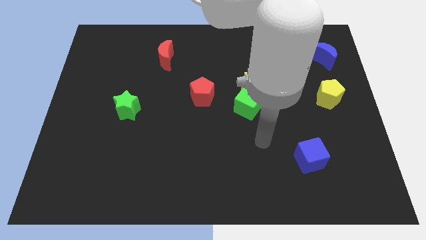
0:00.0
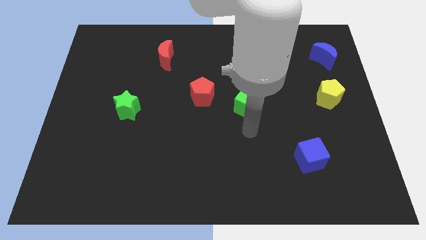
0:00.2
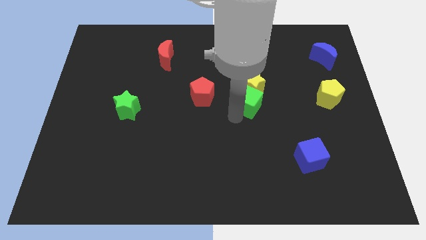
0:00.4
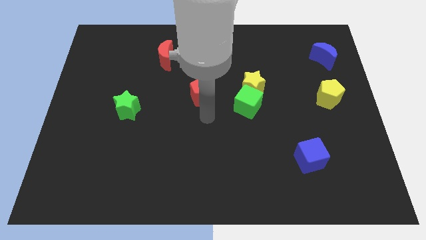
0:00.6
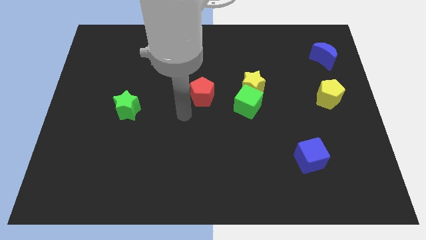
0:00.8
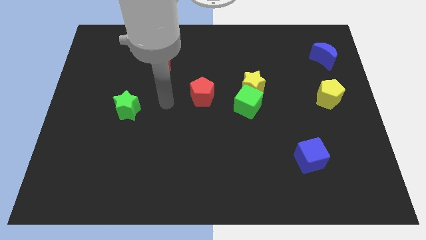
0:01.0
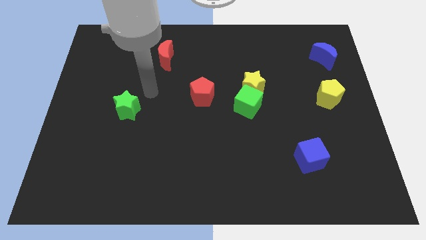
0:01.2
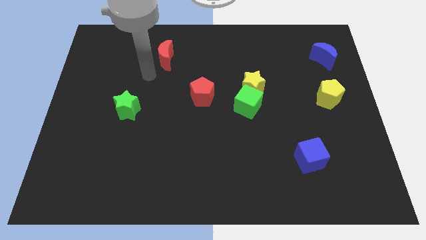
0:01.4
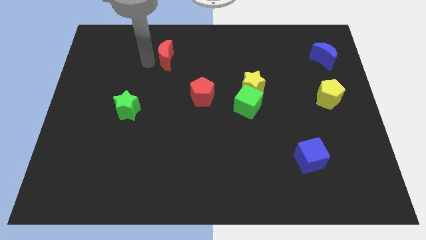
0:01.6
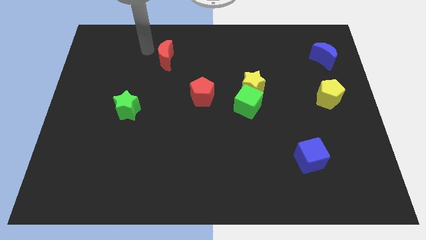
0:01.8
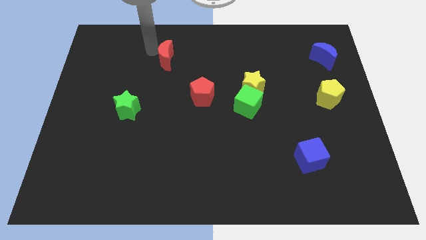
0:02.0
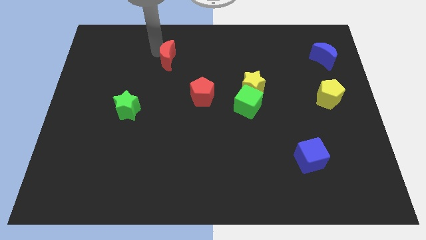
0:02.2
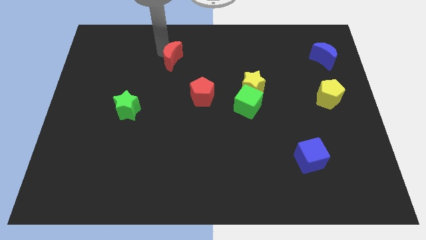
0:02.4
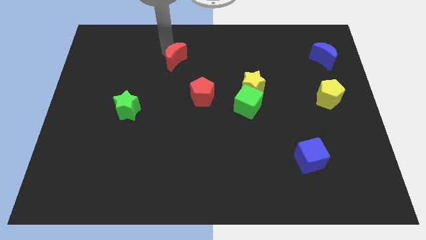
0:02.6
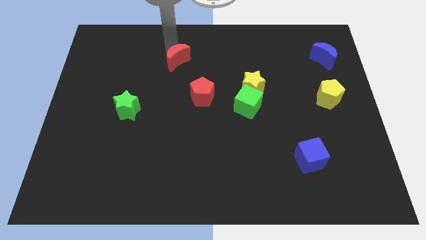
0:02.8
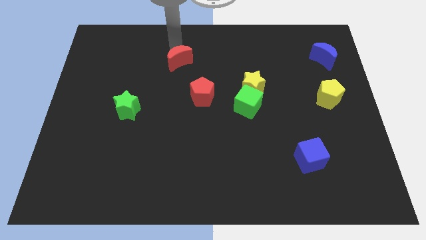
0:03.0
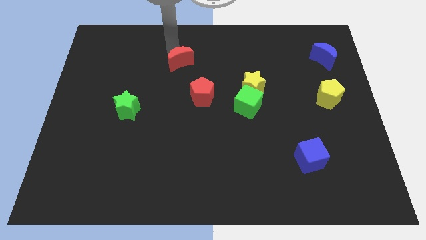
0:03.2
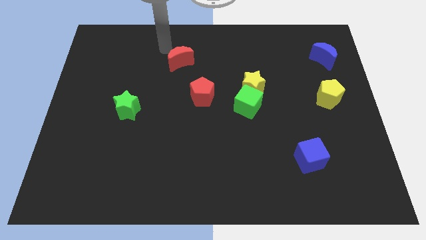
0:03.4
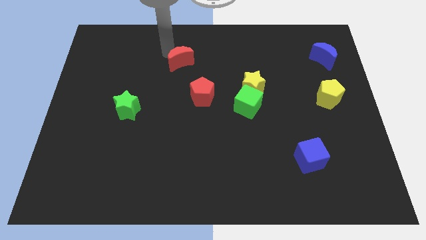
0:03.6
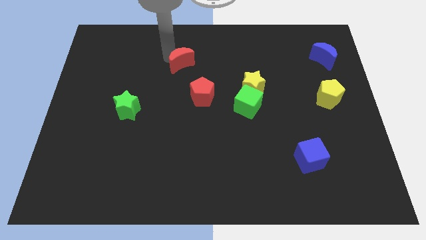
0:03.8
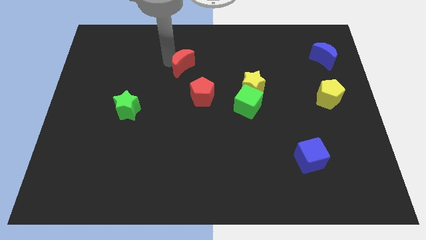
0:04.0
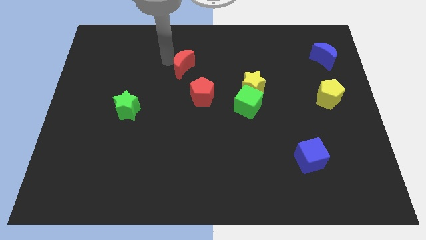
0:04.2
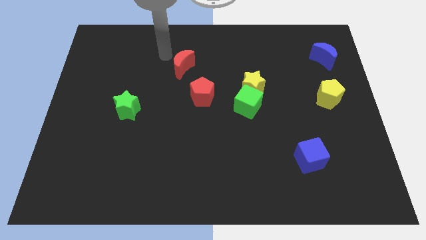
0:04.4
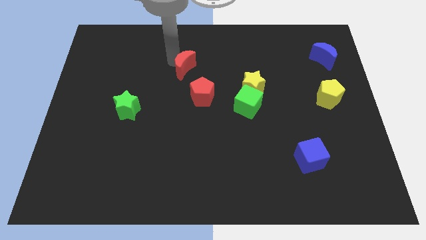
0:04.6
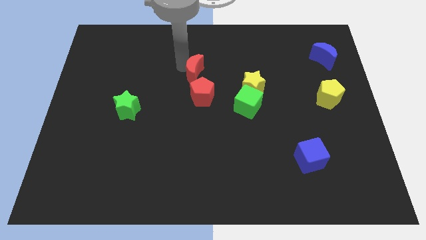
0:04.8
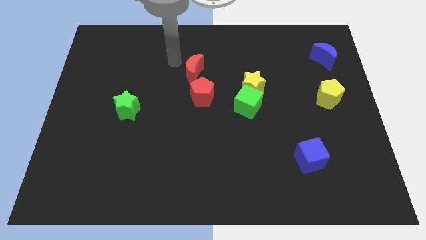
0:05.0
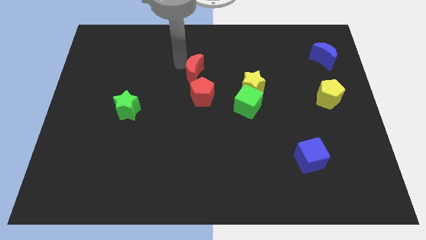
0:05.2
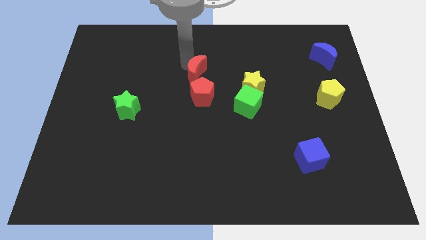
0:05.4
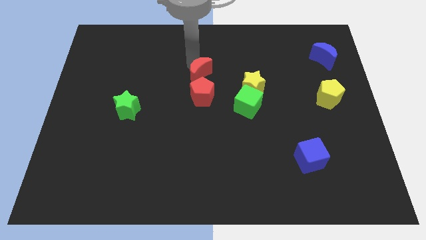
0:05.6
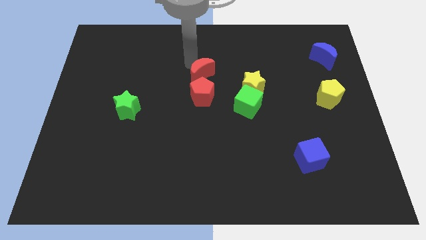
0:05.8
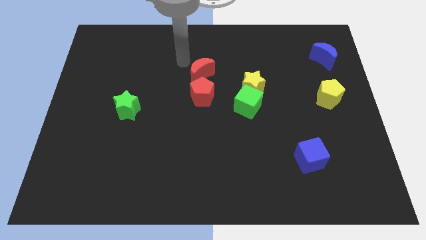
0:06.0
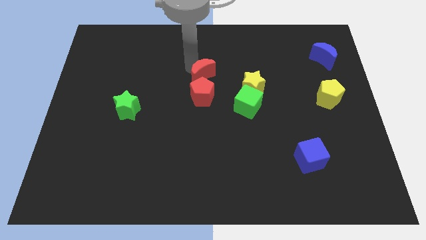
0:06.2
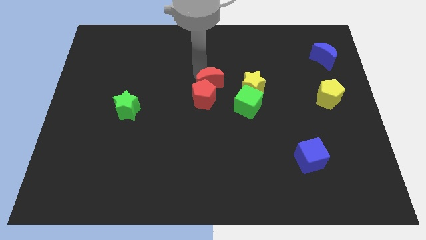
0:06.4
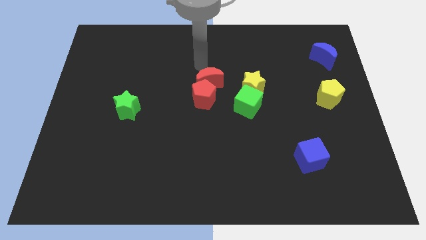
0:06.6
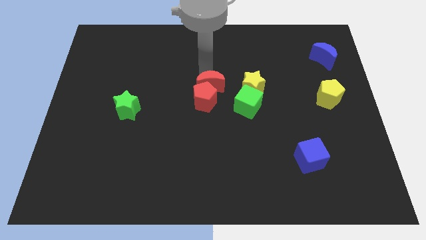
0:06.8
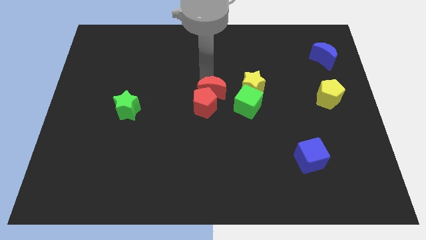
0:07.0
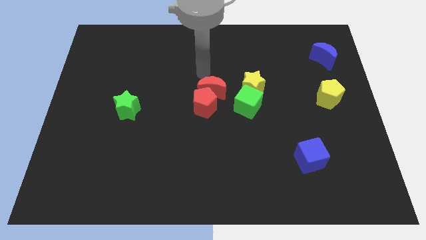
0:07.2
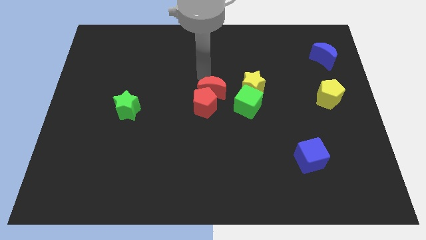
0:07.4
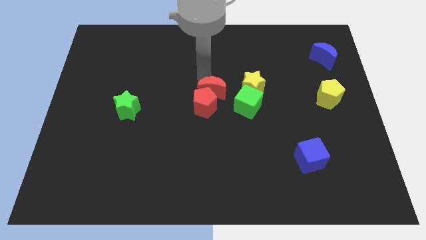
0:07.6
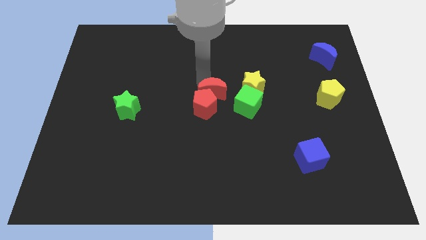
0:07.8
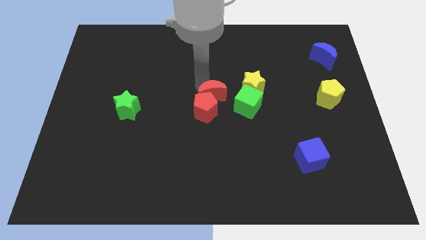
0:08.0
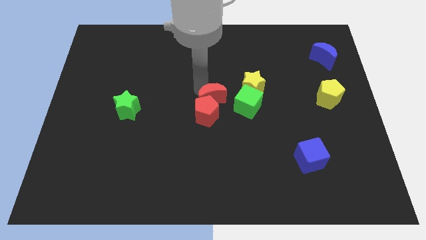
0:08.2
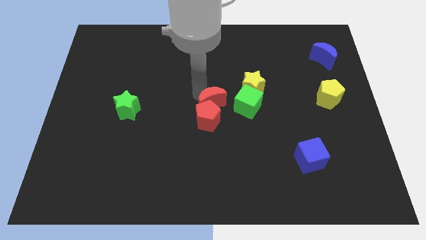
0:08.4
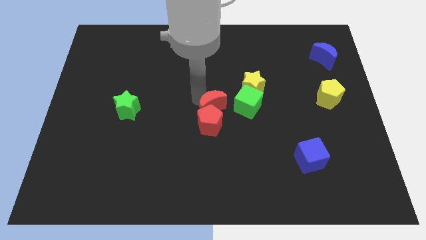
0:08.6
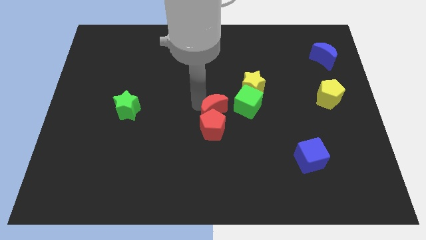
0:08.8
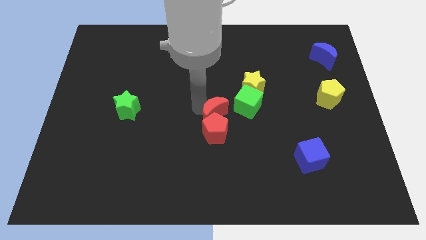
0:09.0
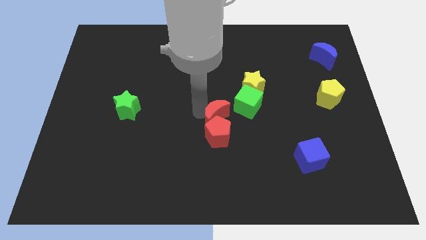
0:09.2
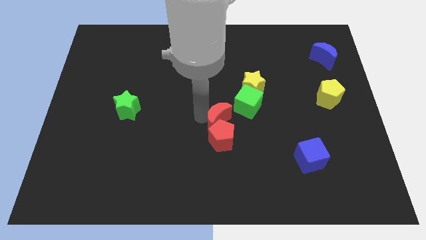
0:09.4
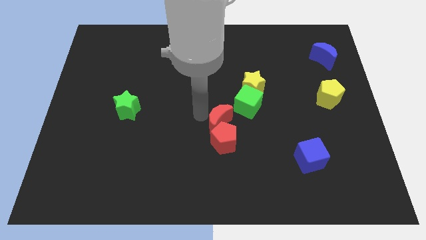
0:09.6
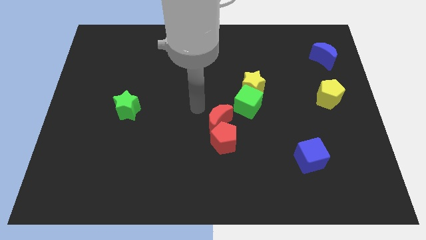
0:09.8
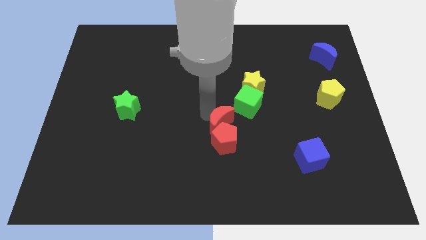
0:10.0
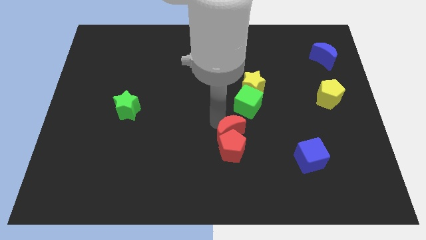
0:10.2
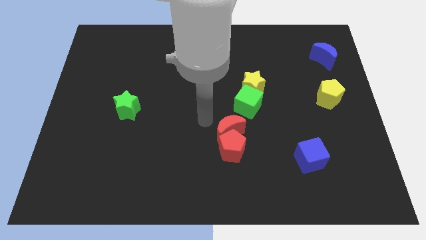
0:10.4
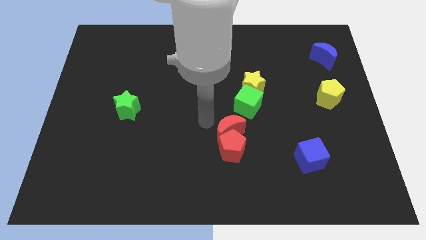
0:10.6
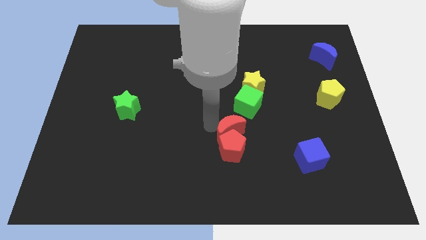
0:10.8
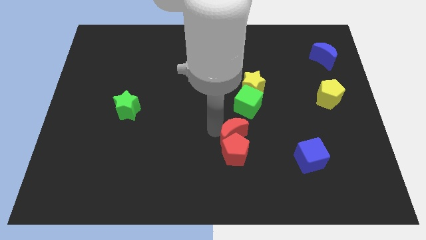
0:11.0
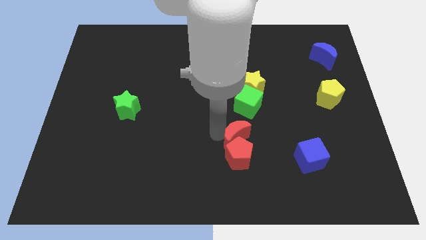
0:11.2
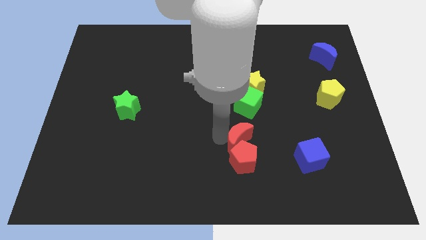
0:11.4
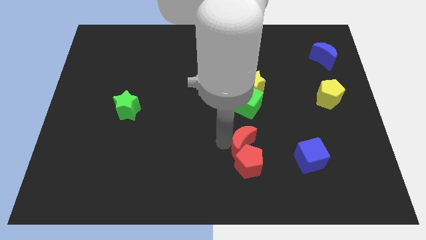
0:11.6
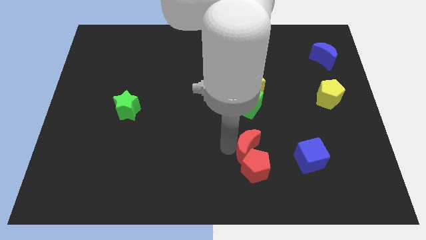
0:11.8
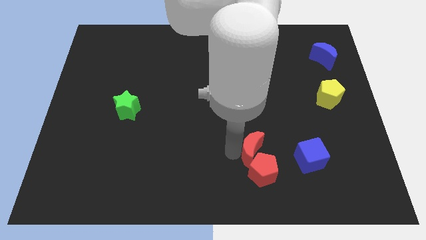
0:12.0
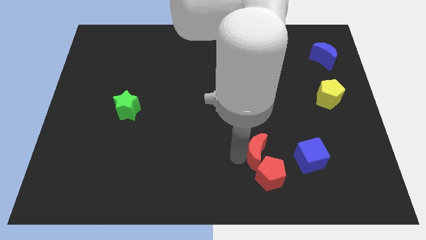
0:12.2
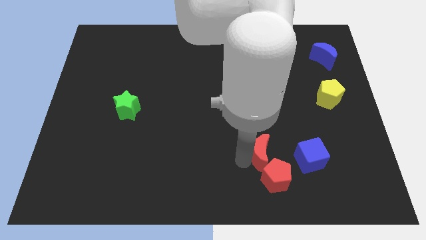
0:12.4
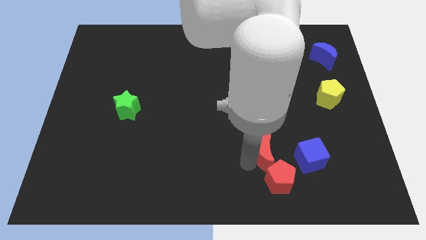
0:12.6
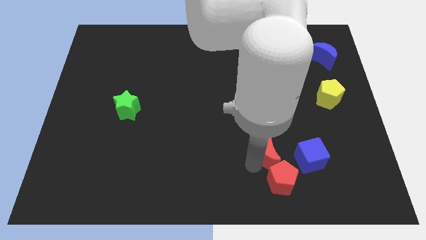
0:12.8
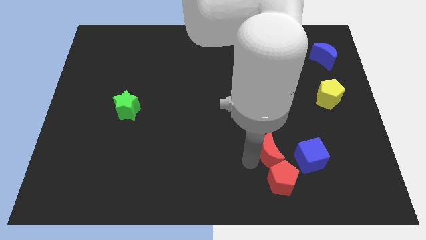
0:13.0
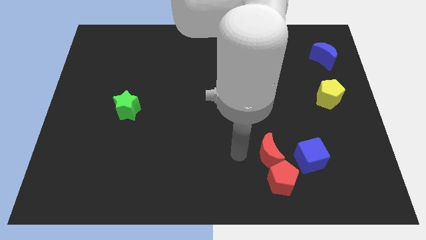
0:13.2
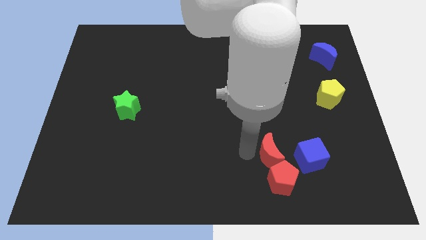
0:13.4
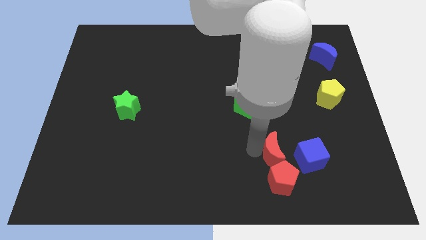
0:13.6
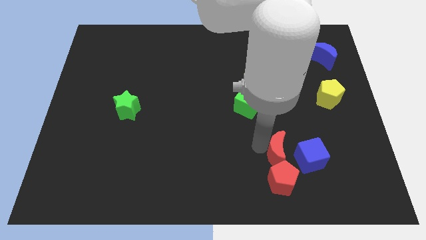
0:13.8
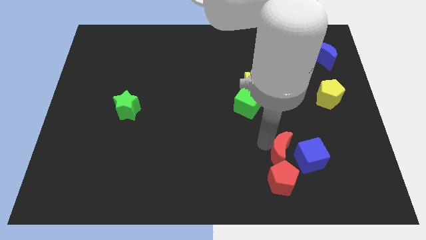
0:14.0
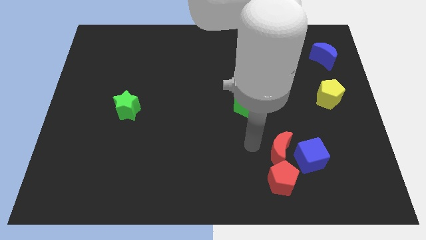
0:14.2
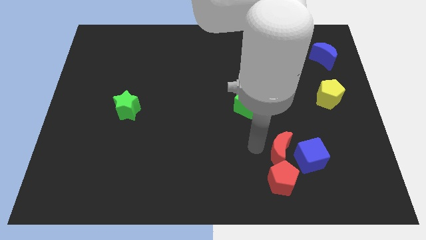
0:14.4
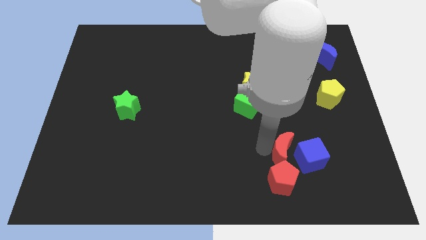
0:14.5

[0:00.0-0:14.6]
put the red moon next to the blue cube
